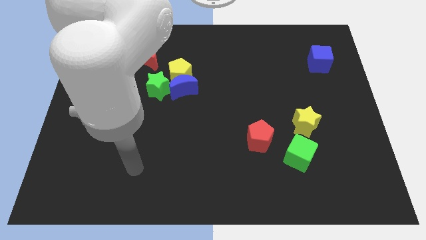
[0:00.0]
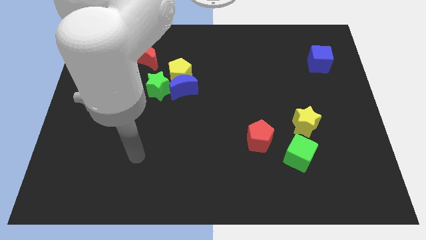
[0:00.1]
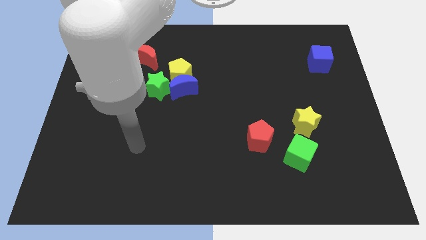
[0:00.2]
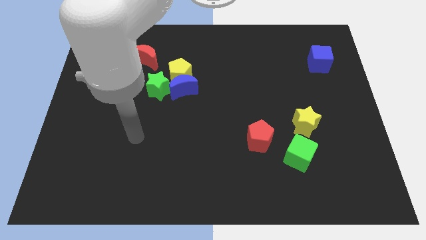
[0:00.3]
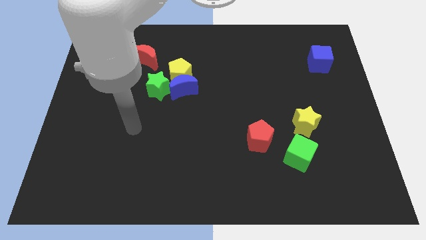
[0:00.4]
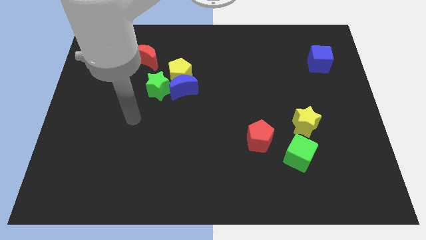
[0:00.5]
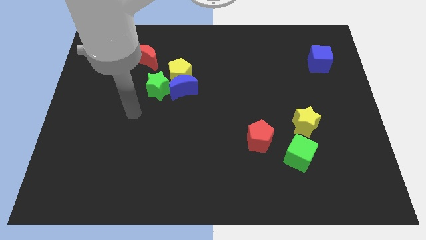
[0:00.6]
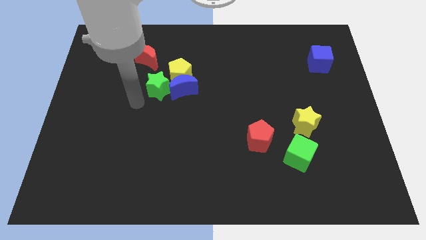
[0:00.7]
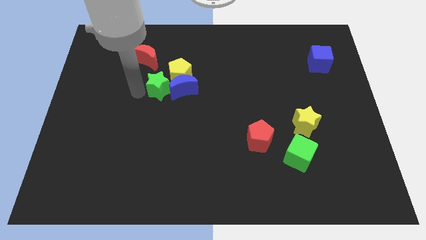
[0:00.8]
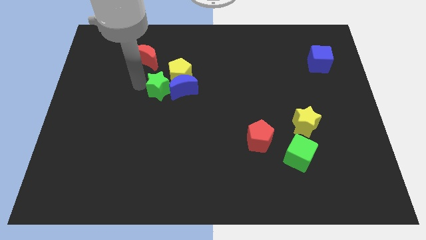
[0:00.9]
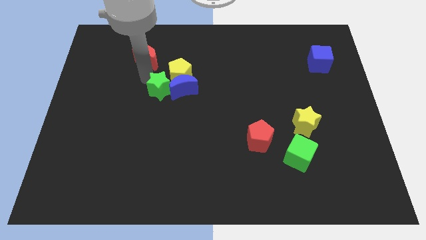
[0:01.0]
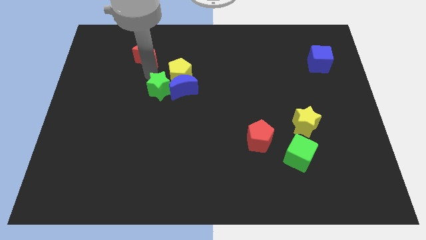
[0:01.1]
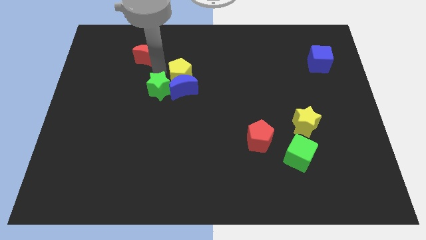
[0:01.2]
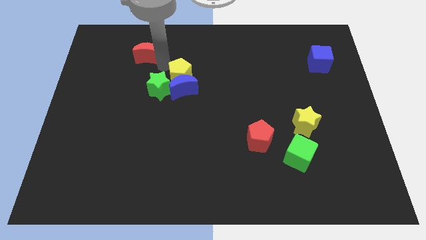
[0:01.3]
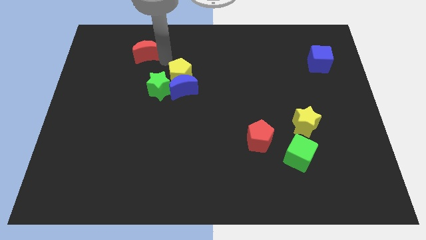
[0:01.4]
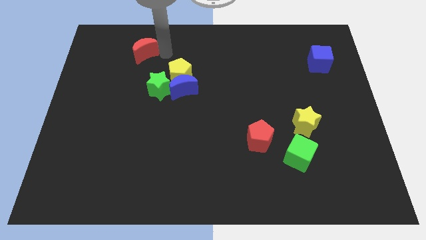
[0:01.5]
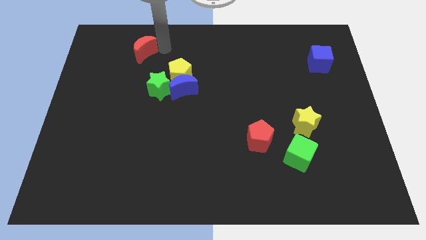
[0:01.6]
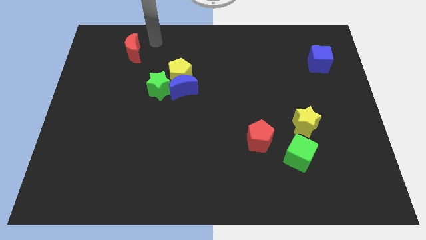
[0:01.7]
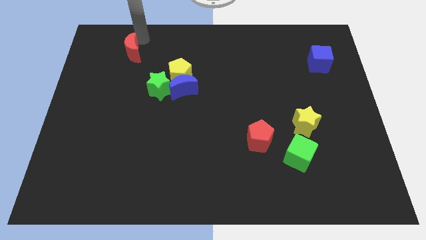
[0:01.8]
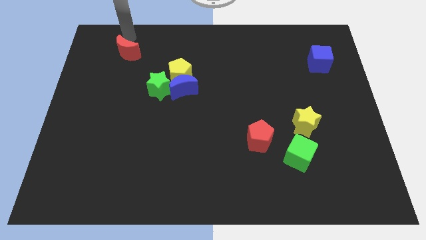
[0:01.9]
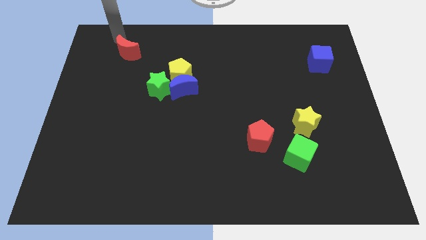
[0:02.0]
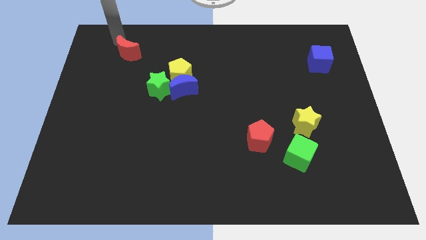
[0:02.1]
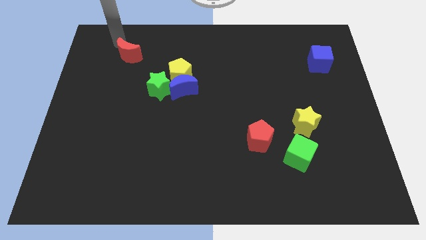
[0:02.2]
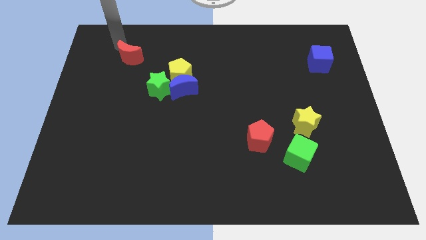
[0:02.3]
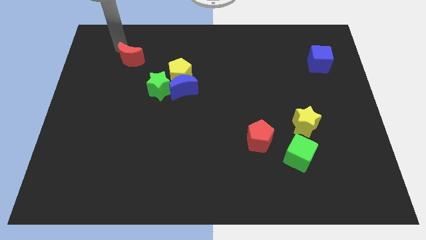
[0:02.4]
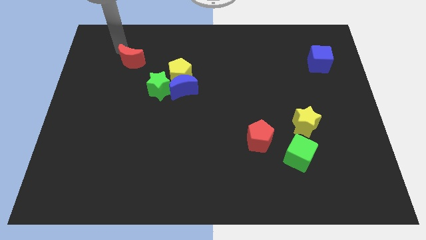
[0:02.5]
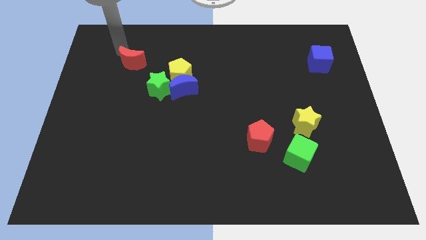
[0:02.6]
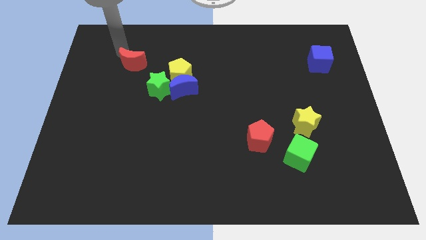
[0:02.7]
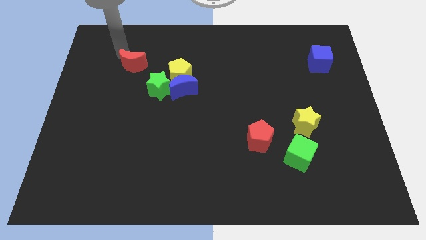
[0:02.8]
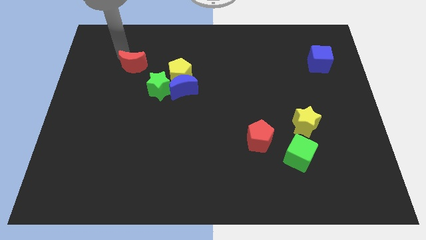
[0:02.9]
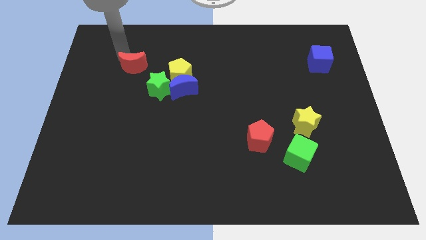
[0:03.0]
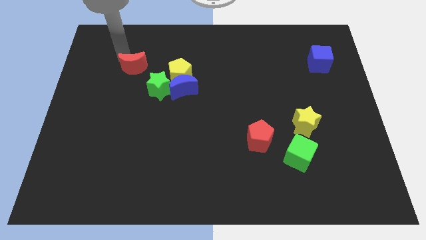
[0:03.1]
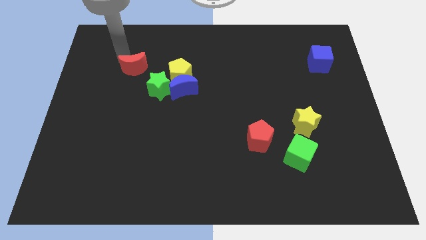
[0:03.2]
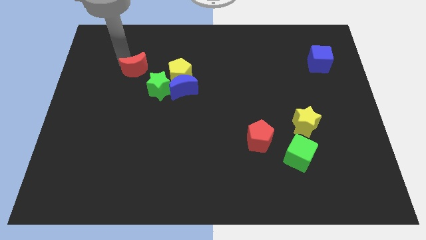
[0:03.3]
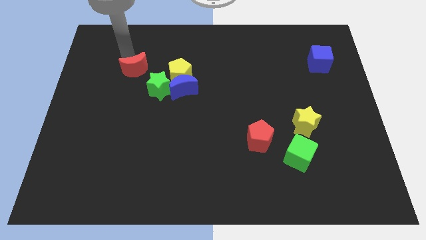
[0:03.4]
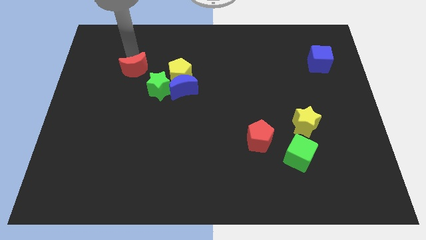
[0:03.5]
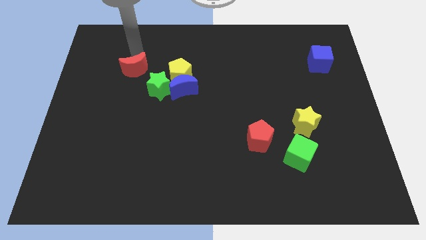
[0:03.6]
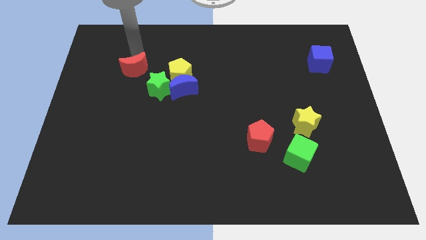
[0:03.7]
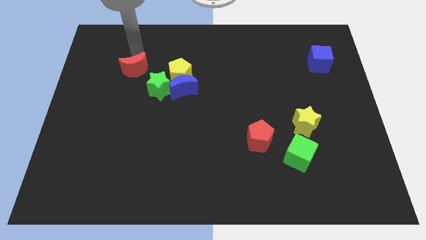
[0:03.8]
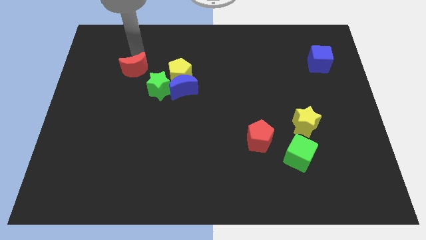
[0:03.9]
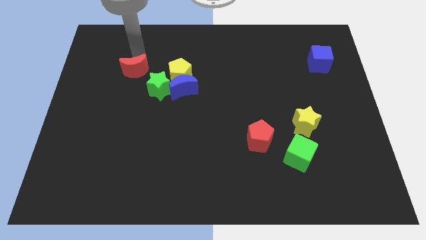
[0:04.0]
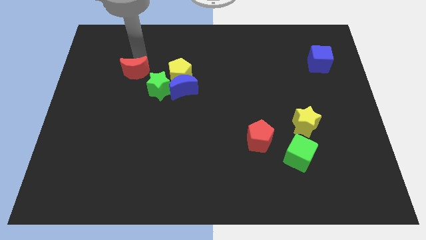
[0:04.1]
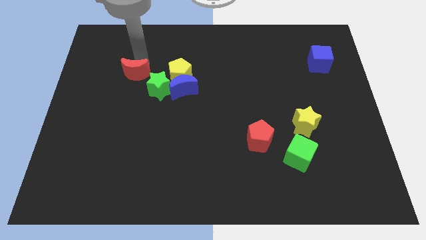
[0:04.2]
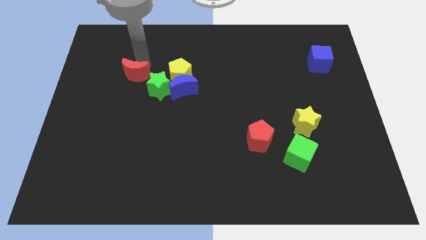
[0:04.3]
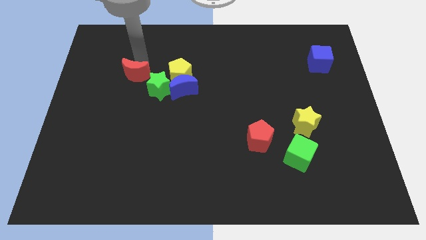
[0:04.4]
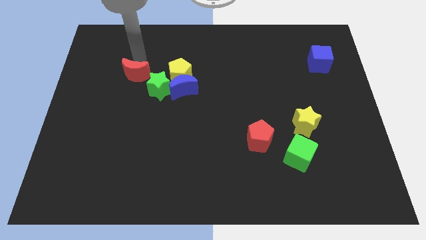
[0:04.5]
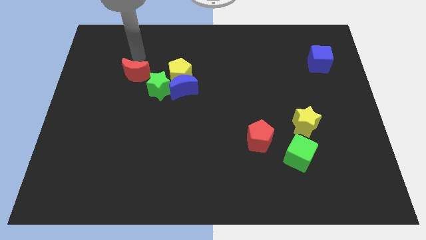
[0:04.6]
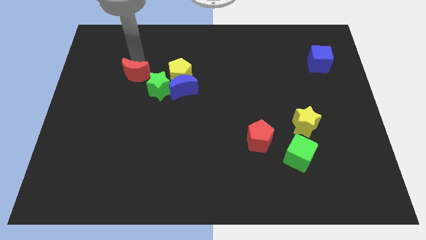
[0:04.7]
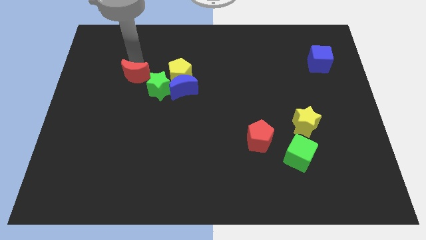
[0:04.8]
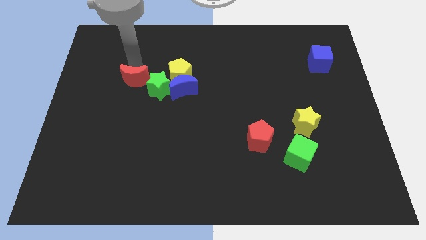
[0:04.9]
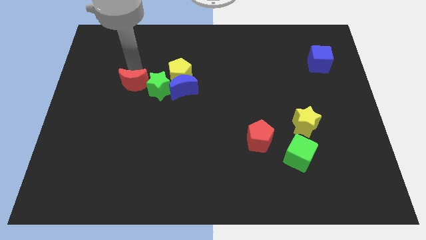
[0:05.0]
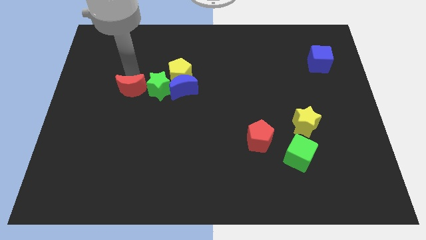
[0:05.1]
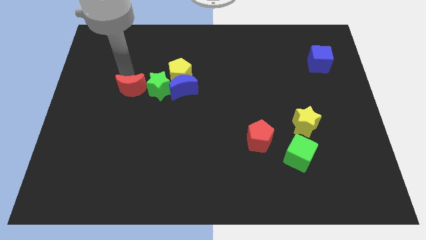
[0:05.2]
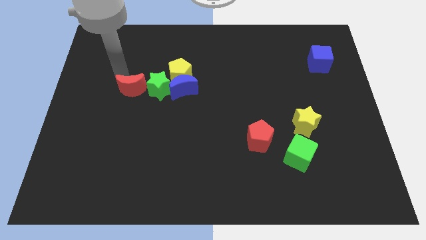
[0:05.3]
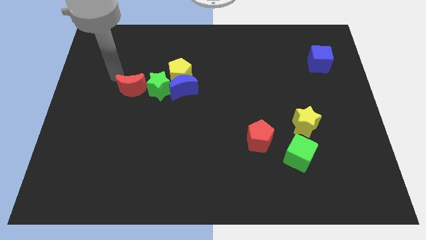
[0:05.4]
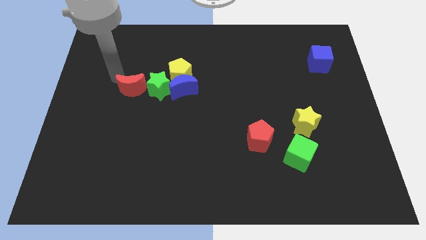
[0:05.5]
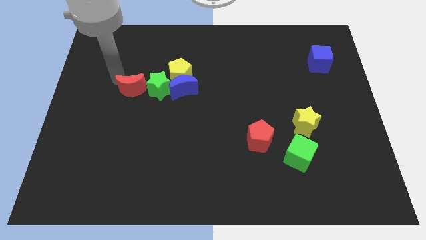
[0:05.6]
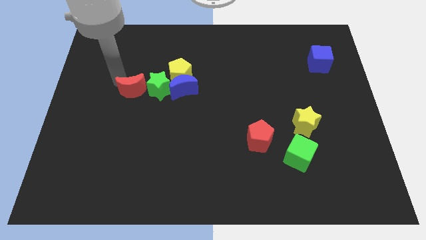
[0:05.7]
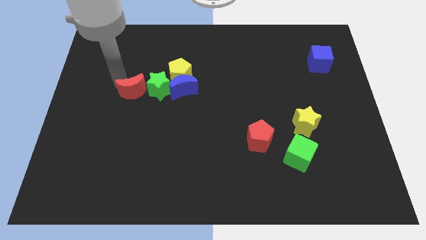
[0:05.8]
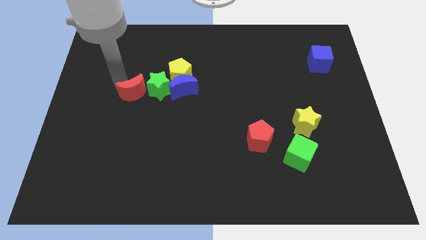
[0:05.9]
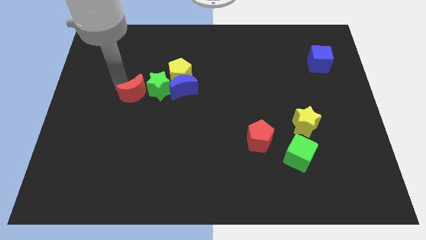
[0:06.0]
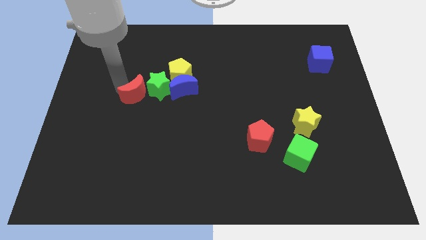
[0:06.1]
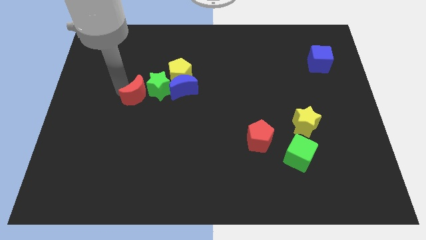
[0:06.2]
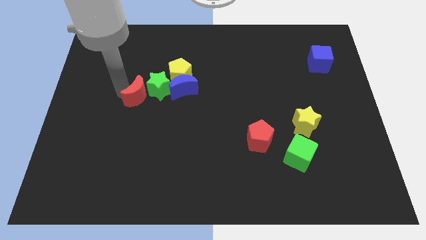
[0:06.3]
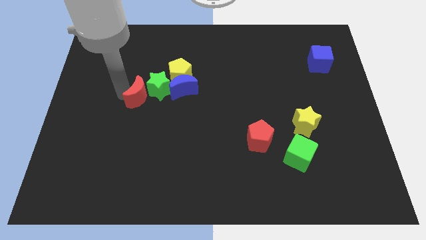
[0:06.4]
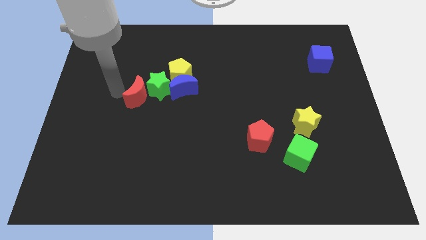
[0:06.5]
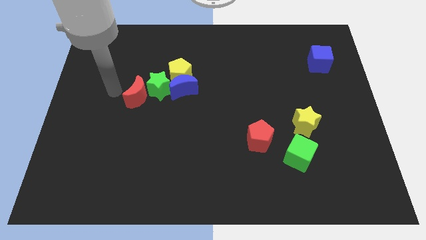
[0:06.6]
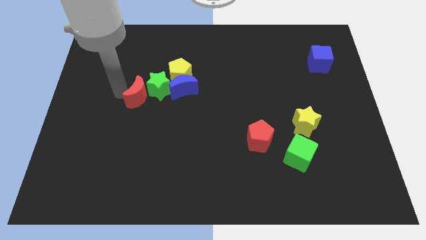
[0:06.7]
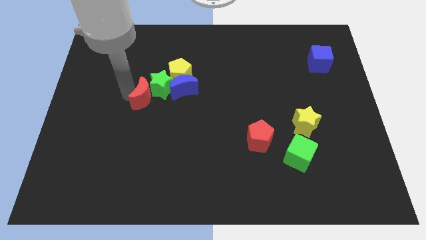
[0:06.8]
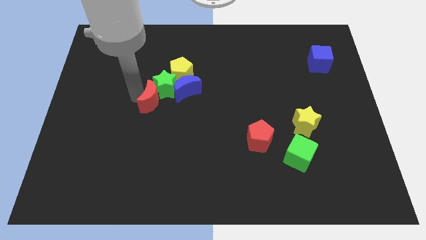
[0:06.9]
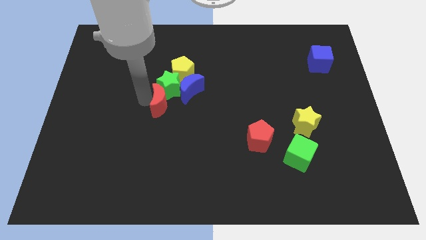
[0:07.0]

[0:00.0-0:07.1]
put the red moon to the bottom right of the green star

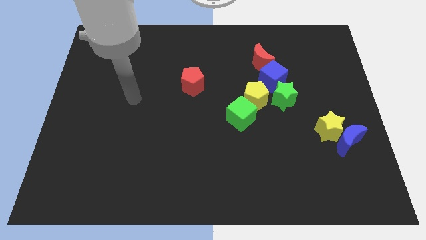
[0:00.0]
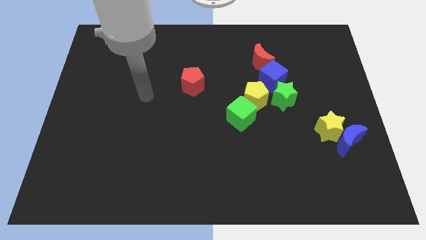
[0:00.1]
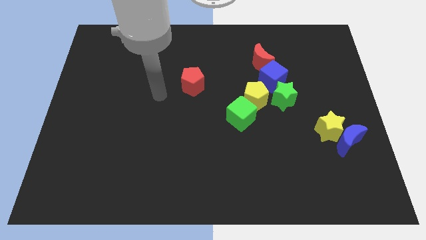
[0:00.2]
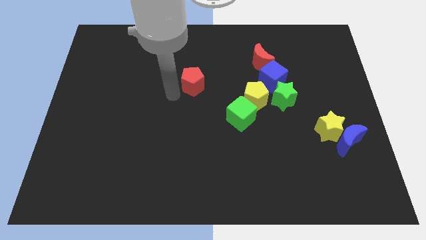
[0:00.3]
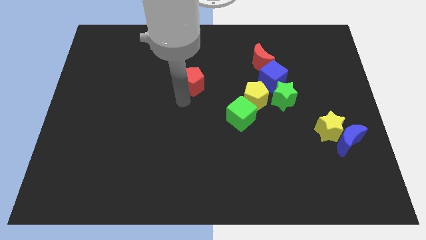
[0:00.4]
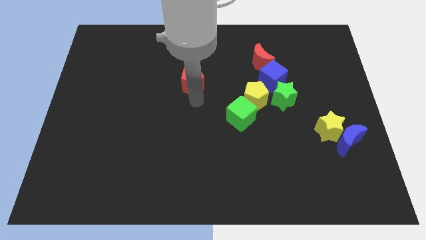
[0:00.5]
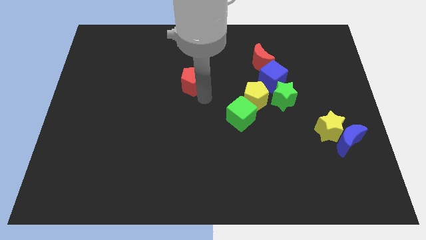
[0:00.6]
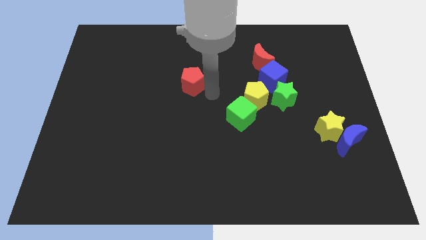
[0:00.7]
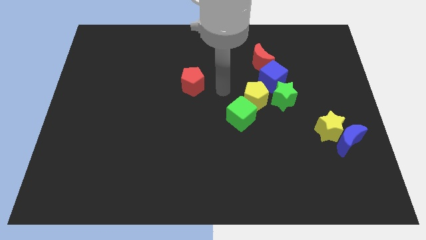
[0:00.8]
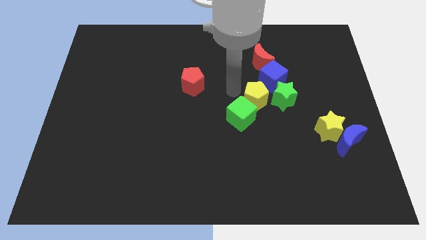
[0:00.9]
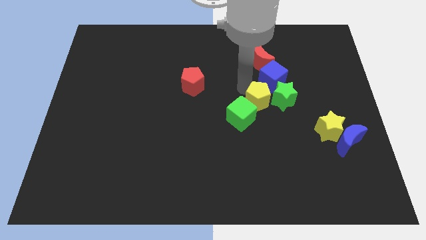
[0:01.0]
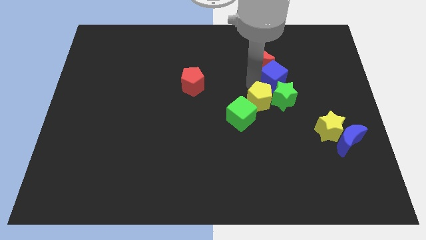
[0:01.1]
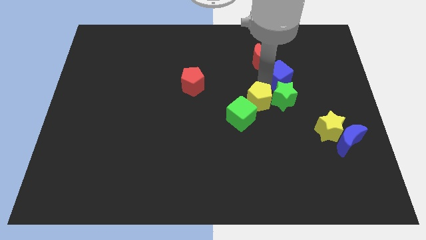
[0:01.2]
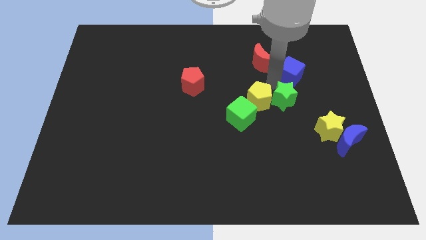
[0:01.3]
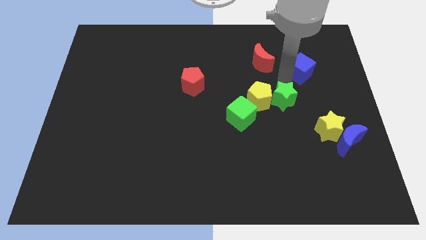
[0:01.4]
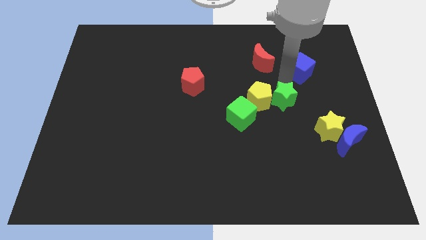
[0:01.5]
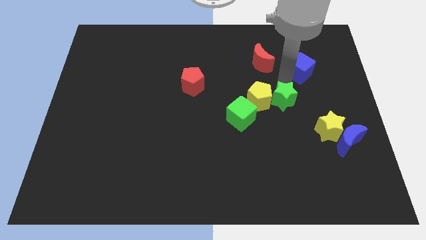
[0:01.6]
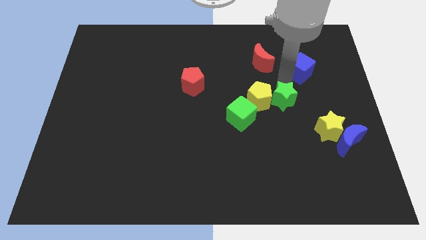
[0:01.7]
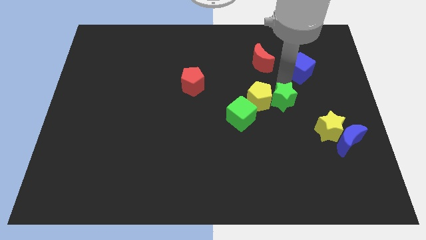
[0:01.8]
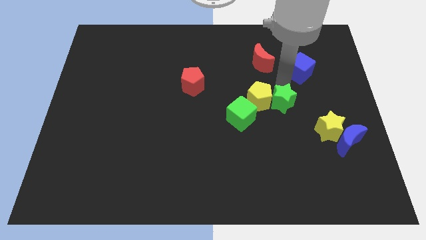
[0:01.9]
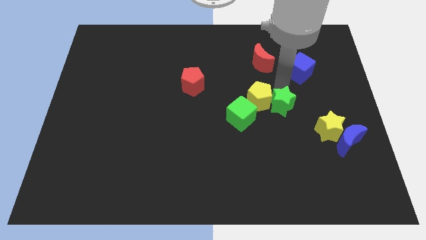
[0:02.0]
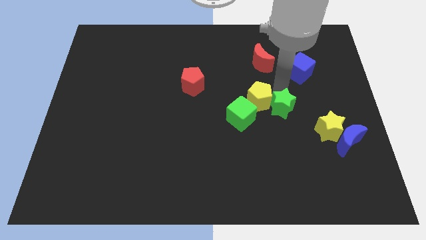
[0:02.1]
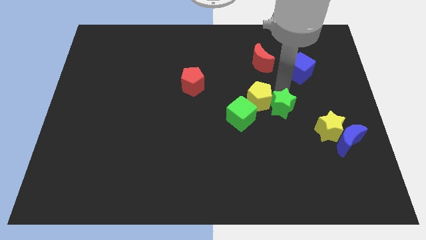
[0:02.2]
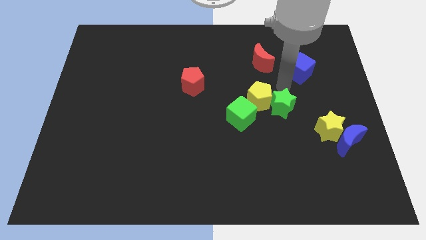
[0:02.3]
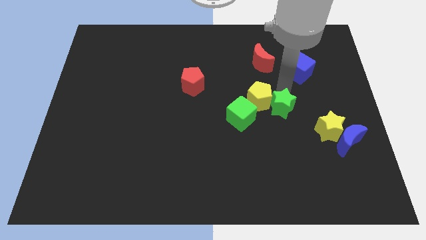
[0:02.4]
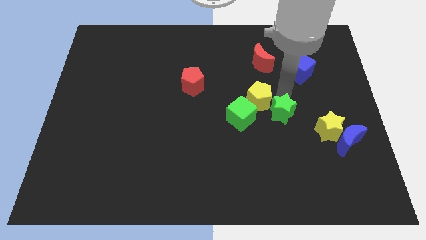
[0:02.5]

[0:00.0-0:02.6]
move the green star to the left side of the yellow star
